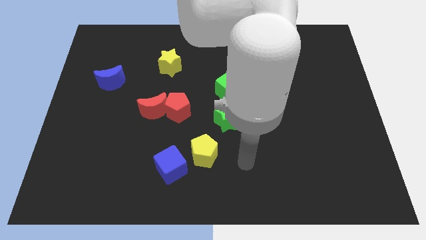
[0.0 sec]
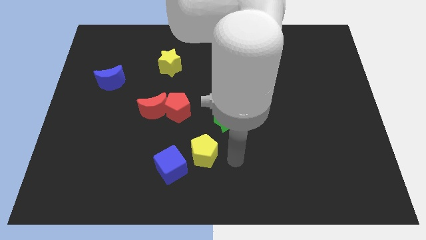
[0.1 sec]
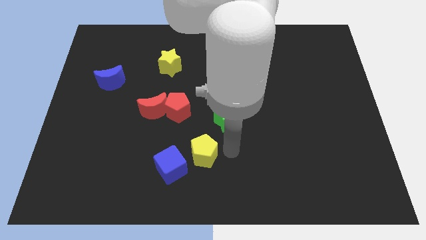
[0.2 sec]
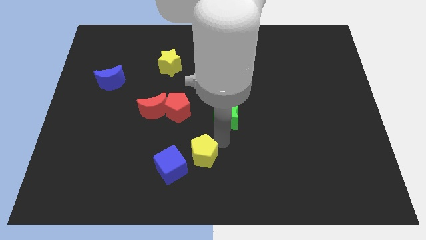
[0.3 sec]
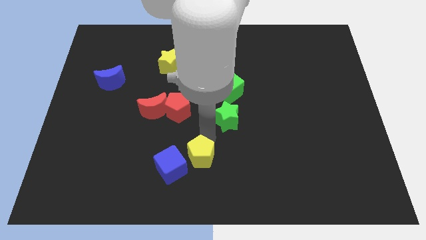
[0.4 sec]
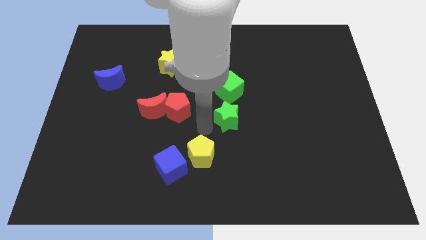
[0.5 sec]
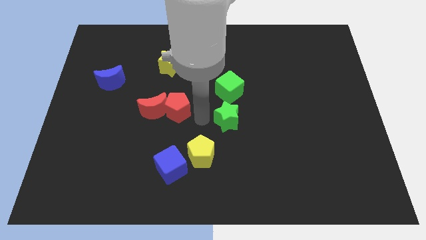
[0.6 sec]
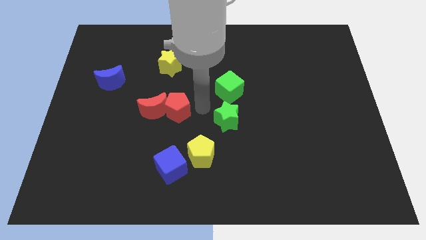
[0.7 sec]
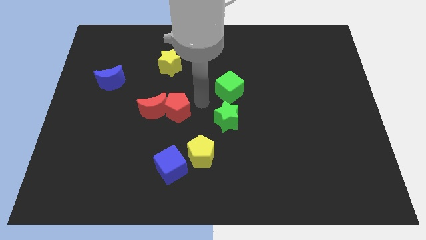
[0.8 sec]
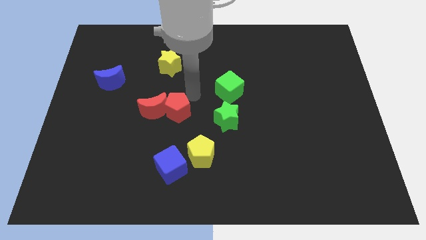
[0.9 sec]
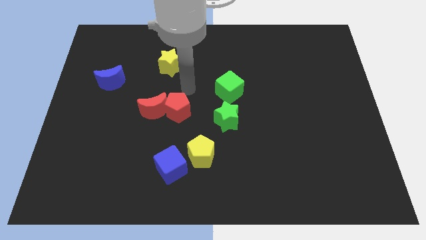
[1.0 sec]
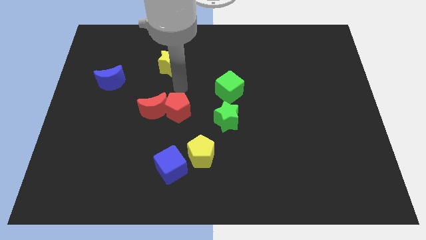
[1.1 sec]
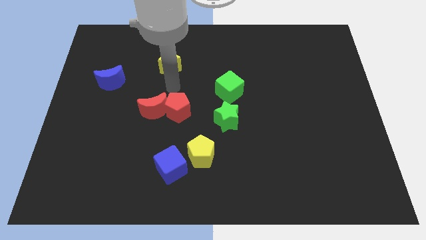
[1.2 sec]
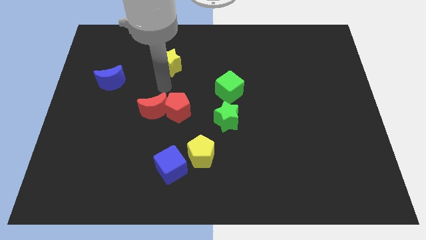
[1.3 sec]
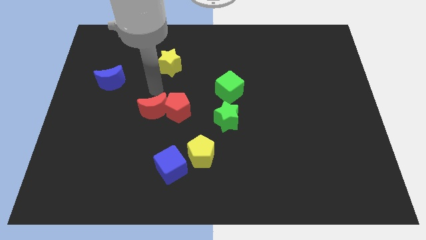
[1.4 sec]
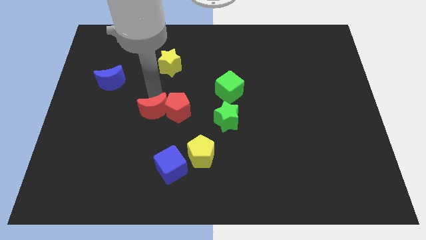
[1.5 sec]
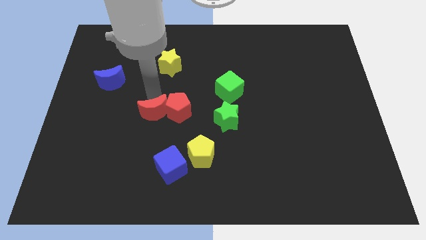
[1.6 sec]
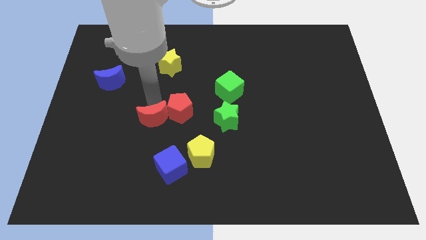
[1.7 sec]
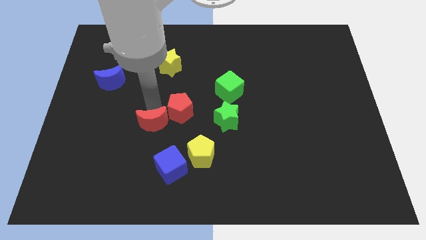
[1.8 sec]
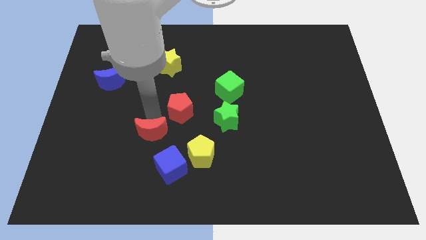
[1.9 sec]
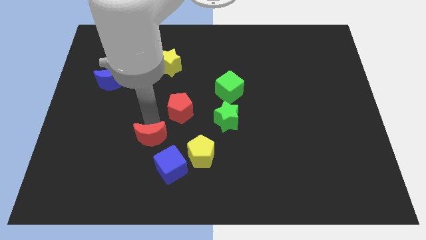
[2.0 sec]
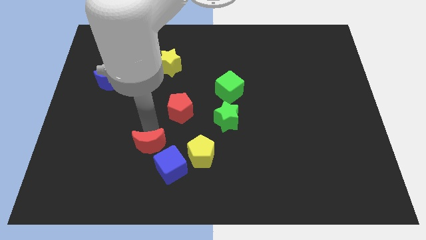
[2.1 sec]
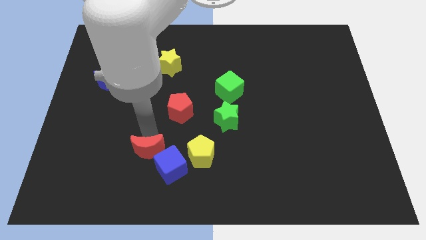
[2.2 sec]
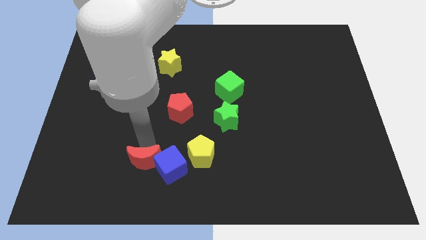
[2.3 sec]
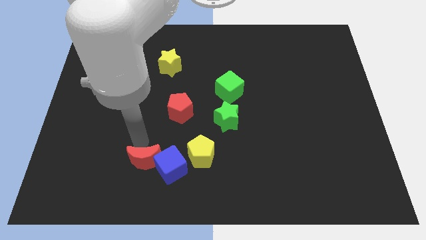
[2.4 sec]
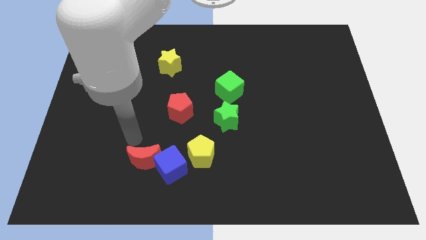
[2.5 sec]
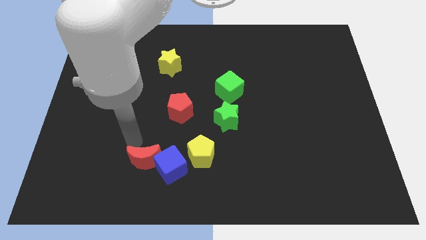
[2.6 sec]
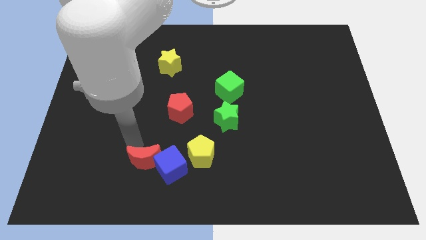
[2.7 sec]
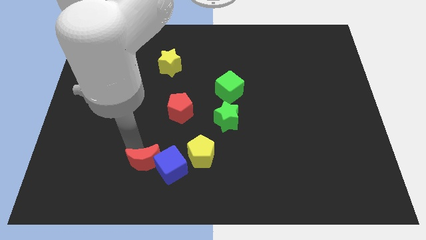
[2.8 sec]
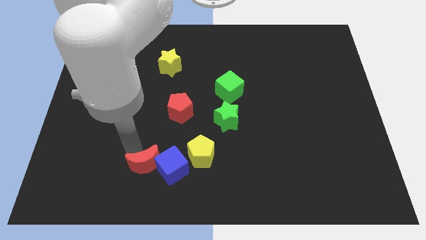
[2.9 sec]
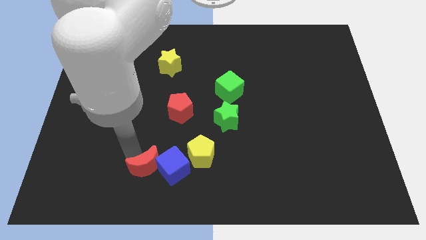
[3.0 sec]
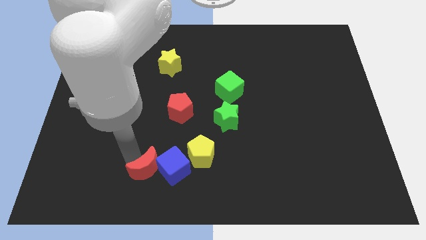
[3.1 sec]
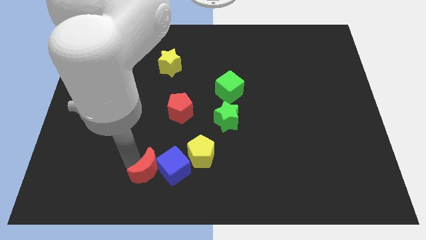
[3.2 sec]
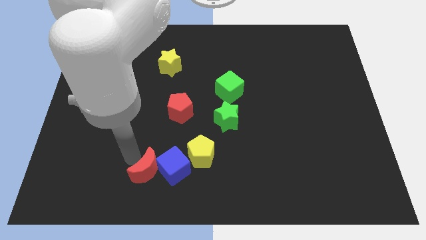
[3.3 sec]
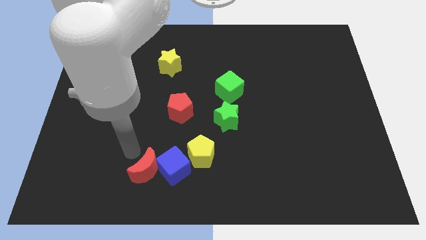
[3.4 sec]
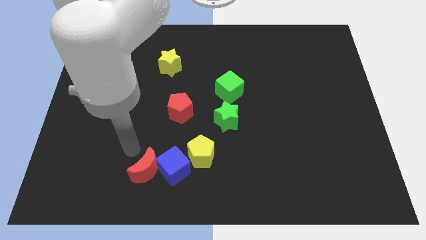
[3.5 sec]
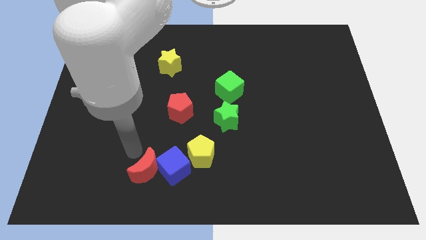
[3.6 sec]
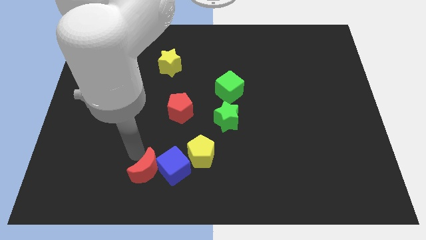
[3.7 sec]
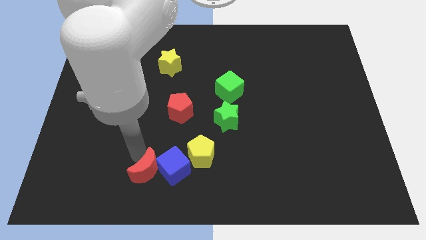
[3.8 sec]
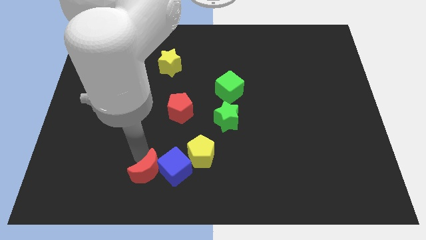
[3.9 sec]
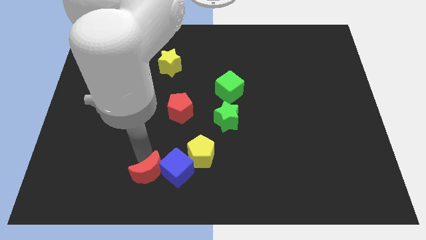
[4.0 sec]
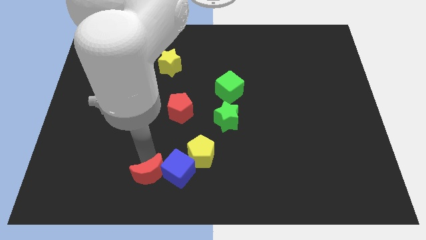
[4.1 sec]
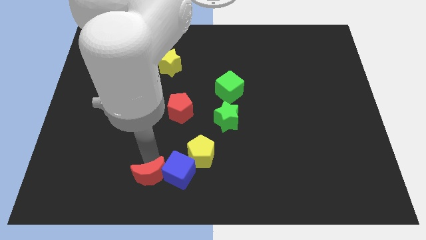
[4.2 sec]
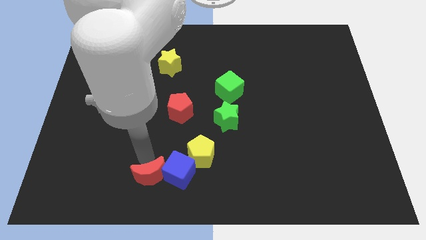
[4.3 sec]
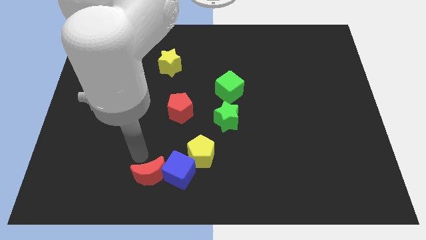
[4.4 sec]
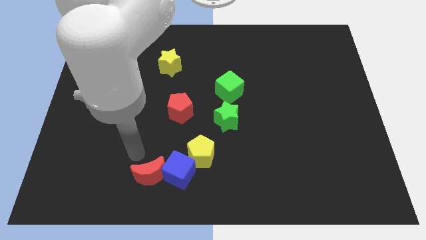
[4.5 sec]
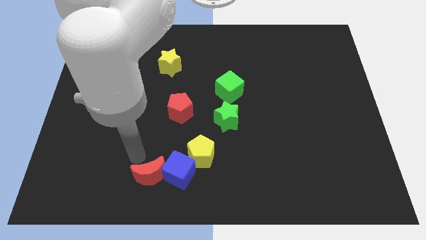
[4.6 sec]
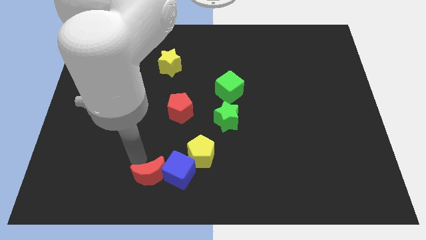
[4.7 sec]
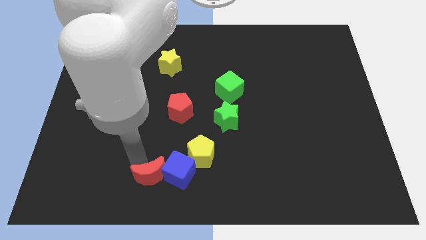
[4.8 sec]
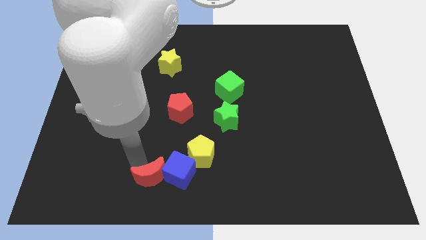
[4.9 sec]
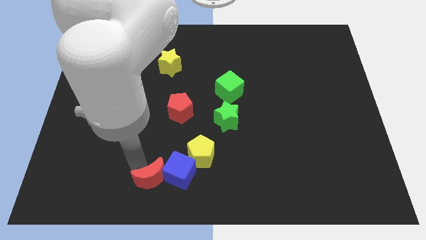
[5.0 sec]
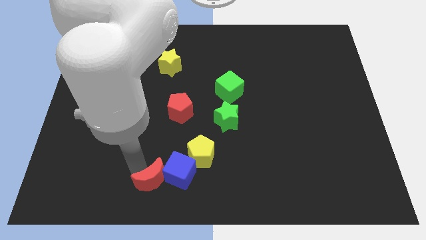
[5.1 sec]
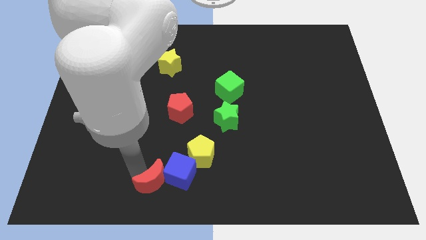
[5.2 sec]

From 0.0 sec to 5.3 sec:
push the red moon to the bottom
